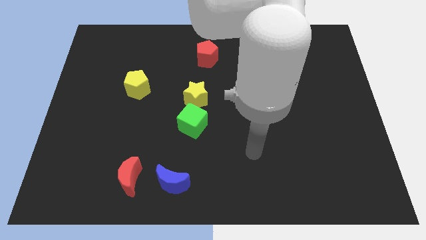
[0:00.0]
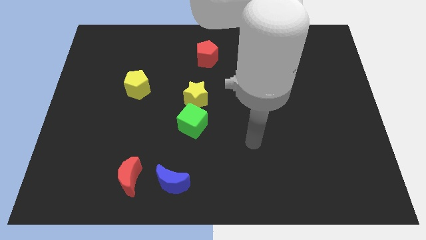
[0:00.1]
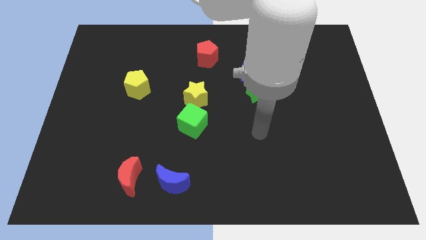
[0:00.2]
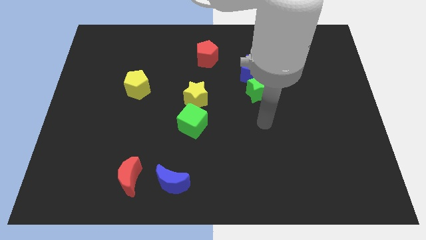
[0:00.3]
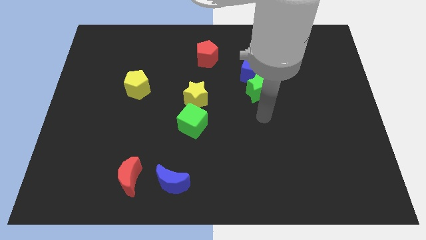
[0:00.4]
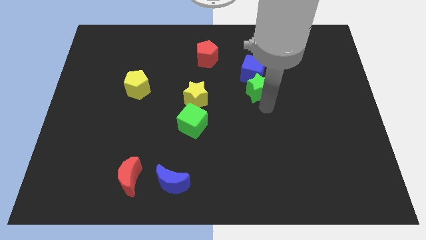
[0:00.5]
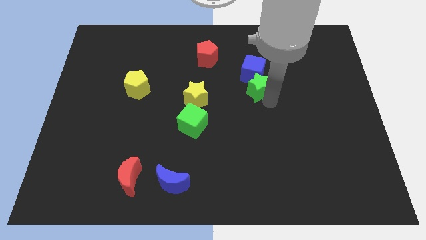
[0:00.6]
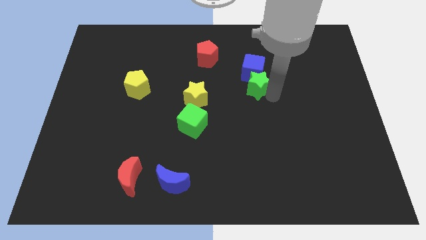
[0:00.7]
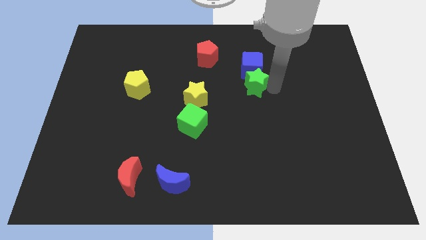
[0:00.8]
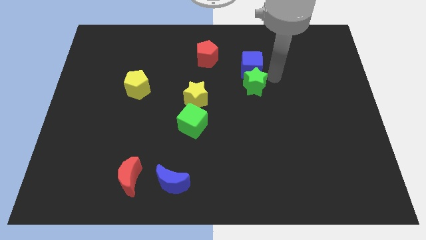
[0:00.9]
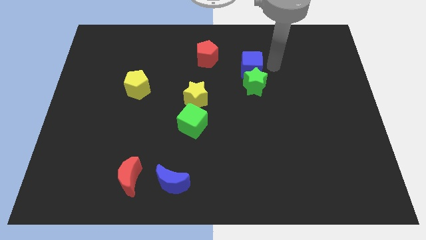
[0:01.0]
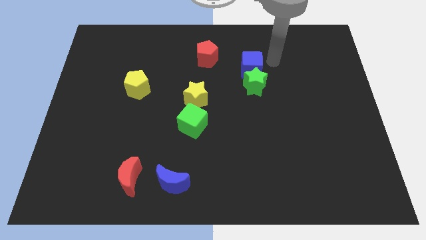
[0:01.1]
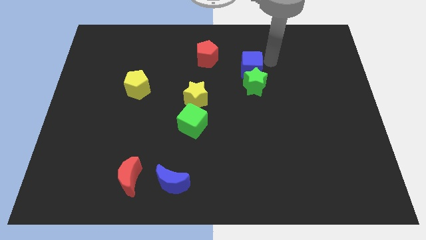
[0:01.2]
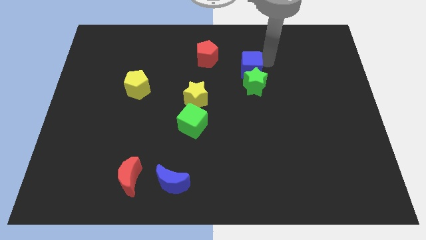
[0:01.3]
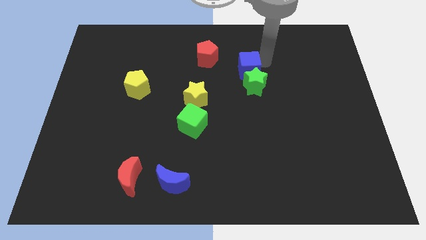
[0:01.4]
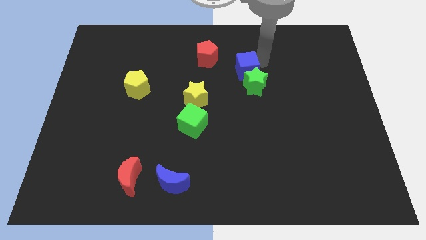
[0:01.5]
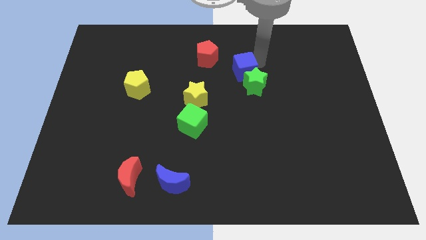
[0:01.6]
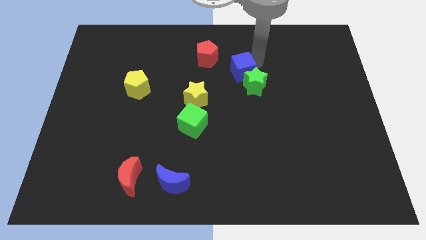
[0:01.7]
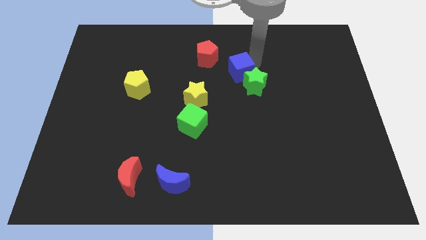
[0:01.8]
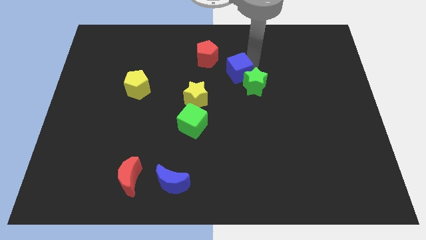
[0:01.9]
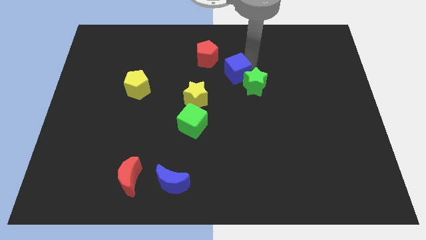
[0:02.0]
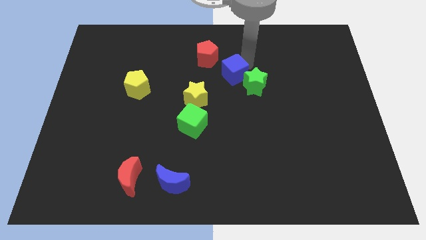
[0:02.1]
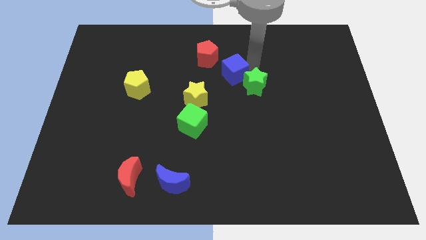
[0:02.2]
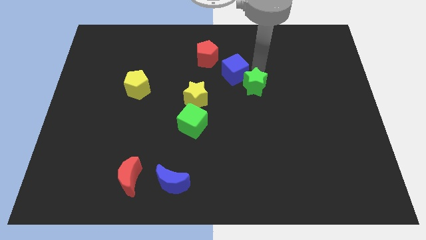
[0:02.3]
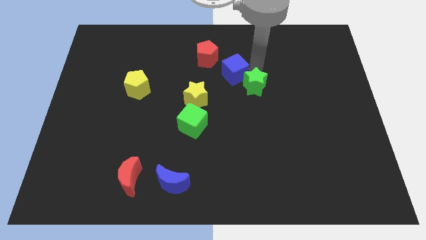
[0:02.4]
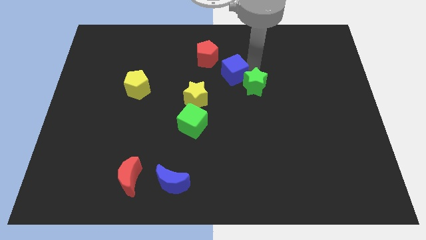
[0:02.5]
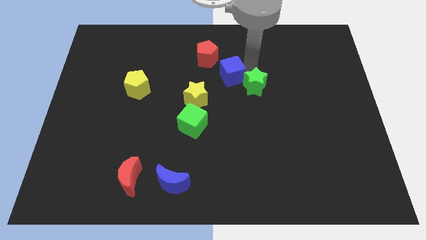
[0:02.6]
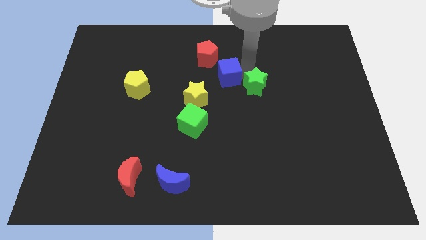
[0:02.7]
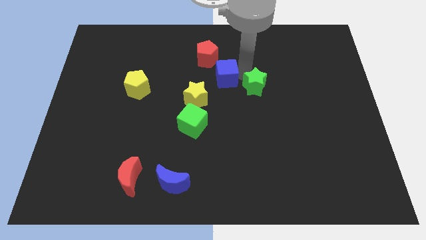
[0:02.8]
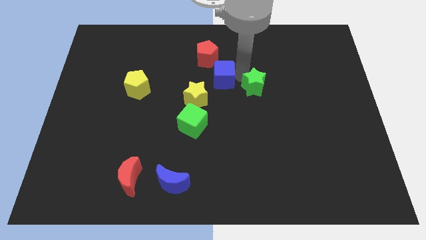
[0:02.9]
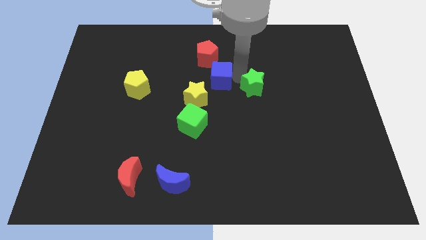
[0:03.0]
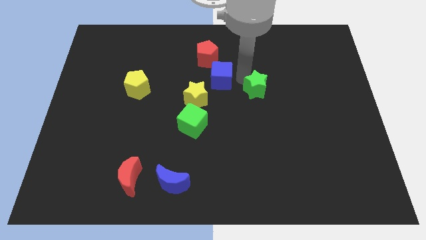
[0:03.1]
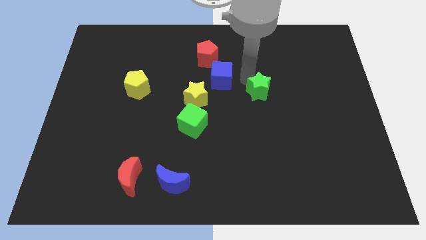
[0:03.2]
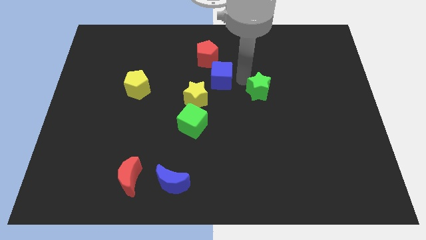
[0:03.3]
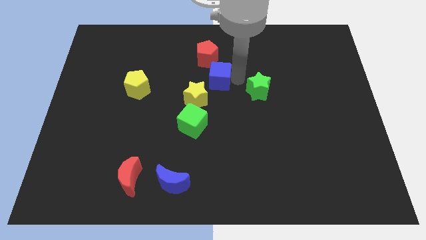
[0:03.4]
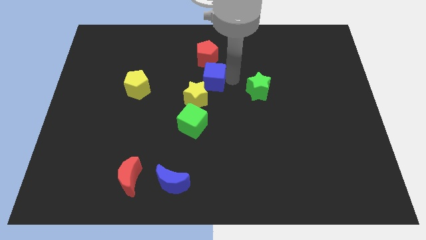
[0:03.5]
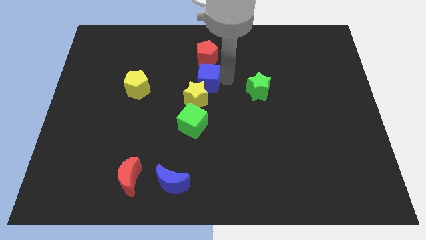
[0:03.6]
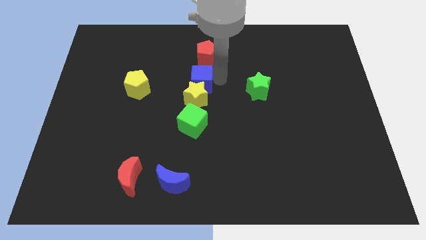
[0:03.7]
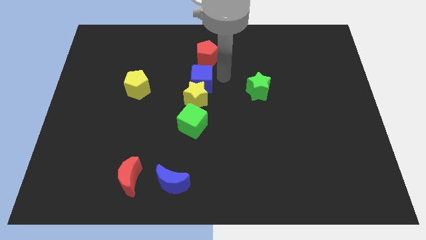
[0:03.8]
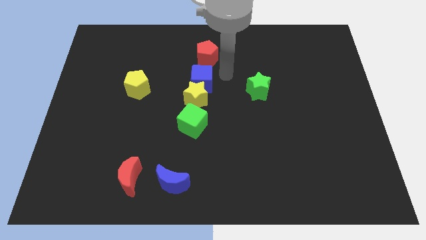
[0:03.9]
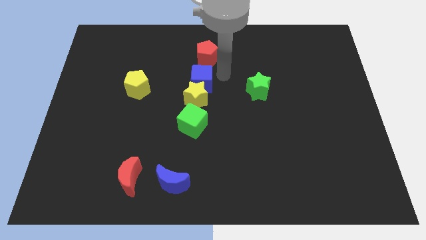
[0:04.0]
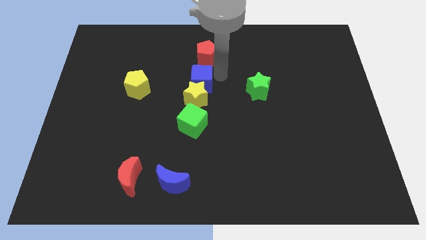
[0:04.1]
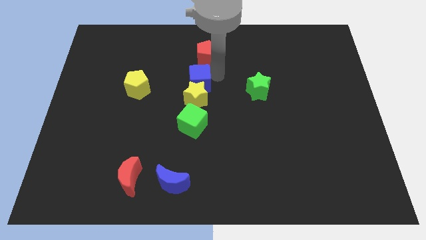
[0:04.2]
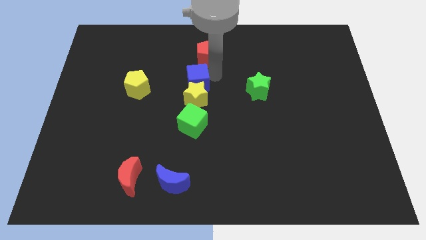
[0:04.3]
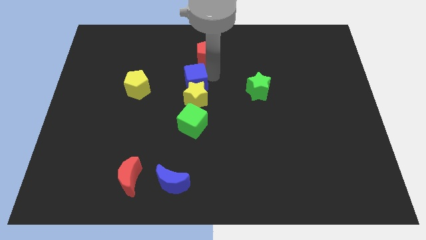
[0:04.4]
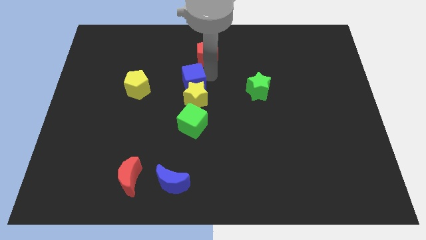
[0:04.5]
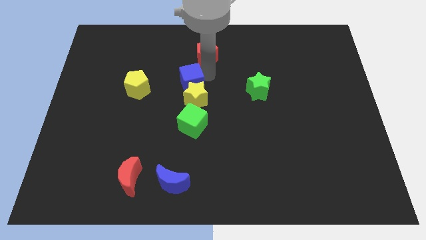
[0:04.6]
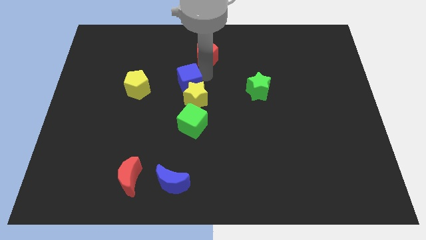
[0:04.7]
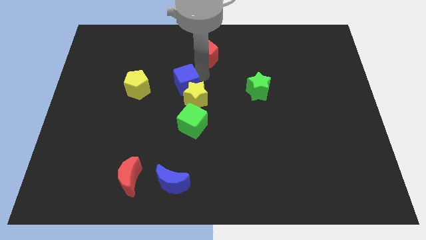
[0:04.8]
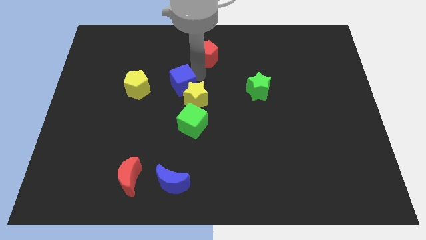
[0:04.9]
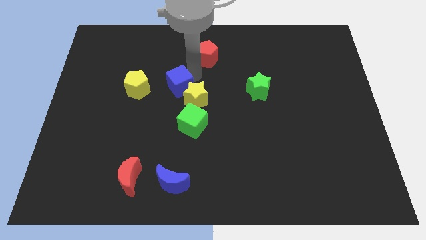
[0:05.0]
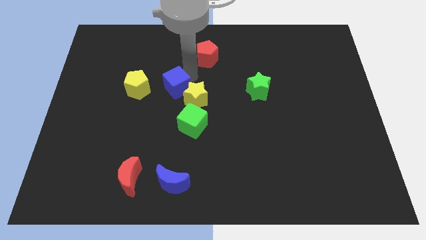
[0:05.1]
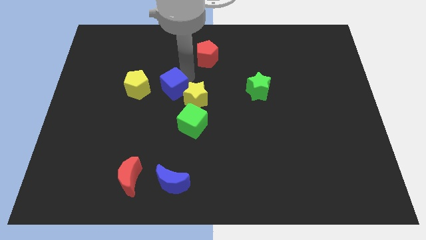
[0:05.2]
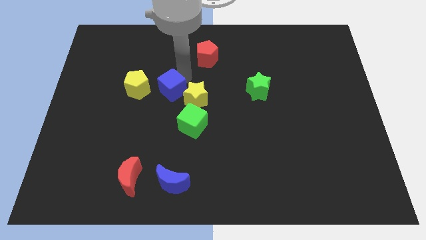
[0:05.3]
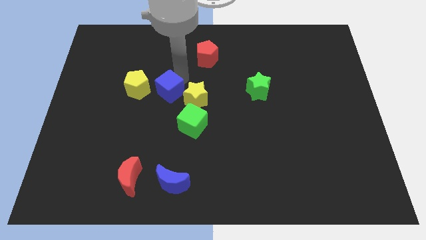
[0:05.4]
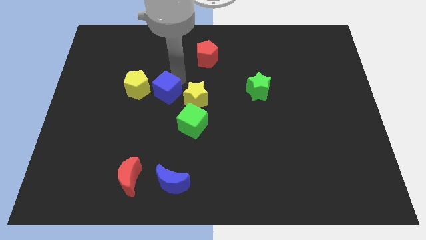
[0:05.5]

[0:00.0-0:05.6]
push the blue cube diagonally down and to the right of the yellow pentagon

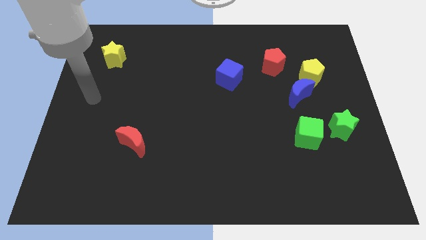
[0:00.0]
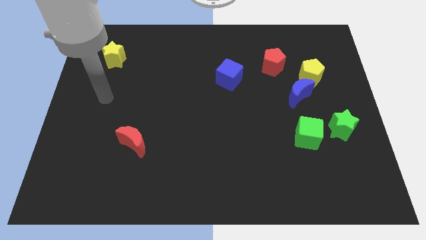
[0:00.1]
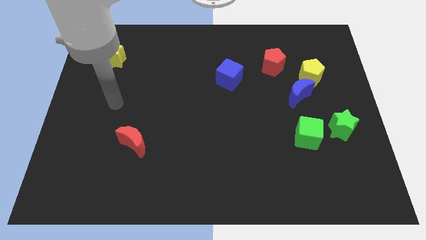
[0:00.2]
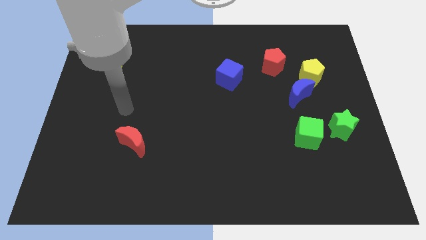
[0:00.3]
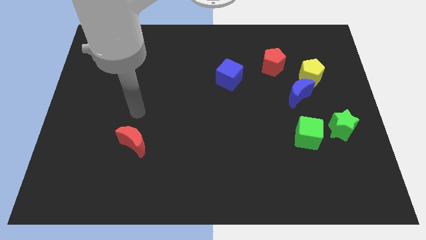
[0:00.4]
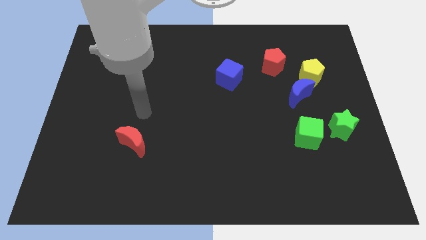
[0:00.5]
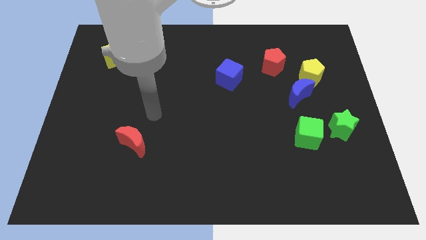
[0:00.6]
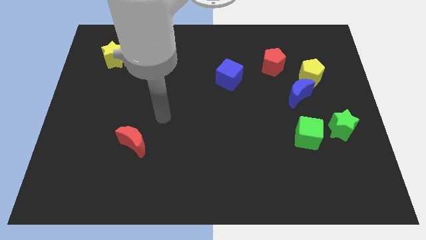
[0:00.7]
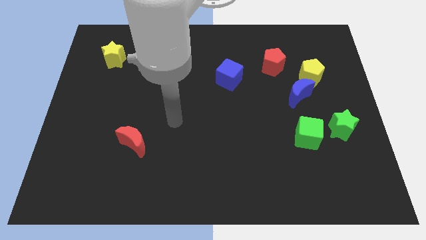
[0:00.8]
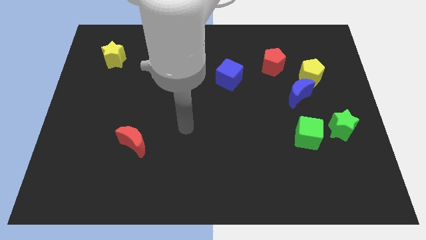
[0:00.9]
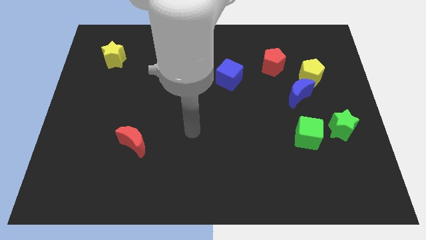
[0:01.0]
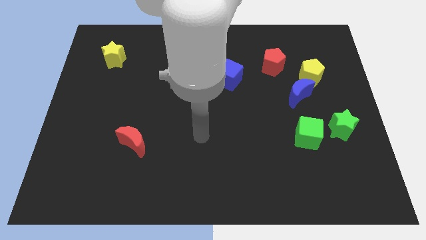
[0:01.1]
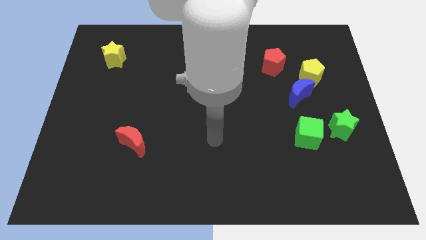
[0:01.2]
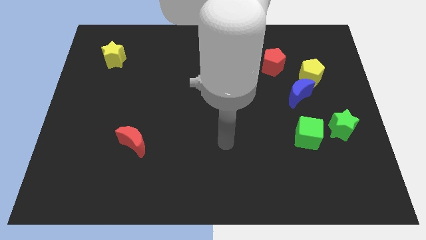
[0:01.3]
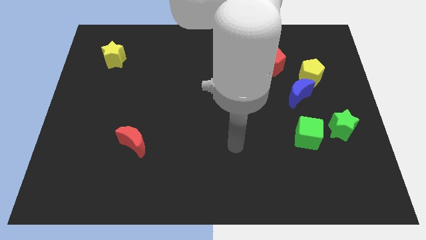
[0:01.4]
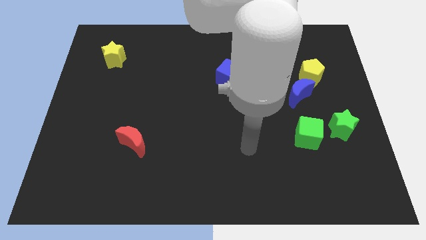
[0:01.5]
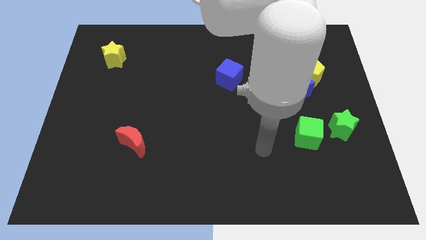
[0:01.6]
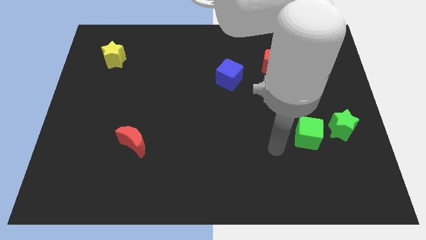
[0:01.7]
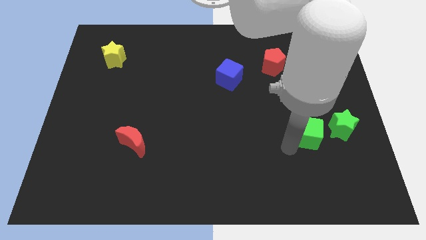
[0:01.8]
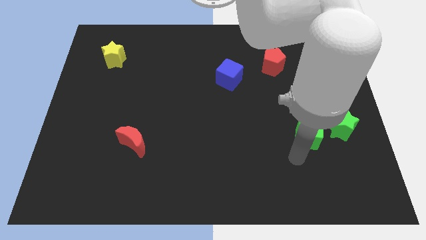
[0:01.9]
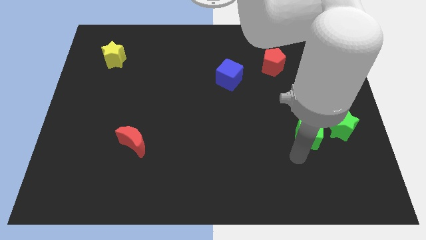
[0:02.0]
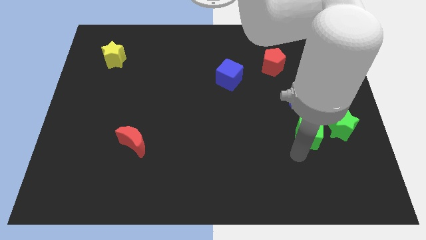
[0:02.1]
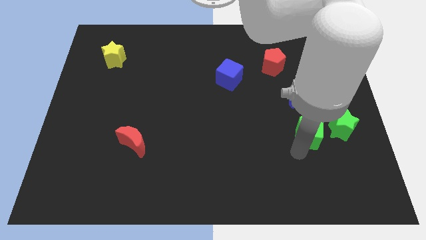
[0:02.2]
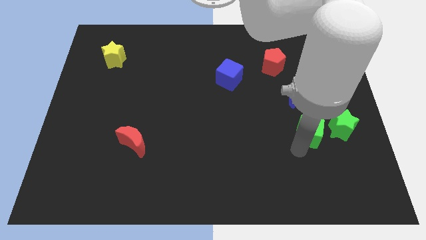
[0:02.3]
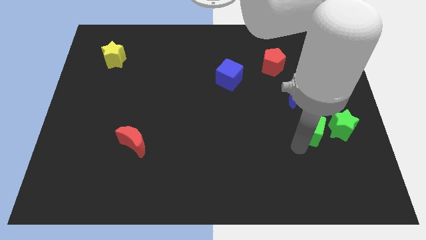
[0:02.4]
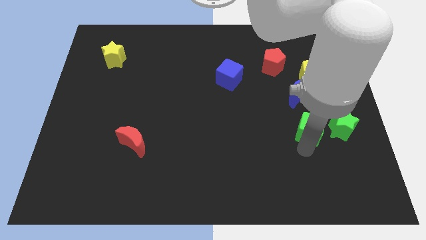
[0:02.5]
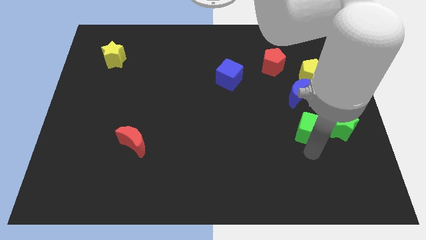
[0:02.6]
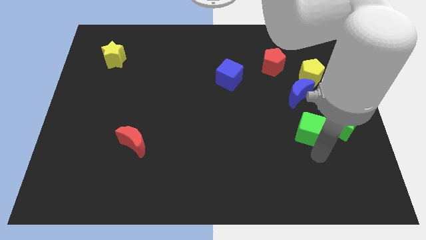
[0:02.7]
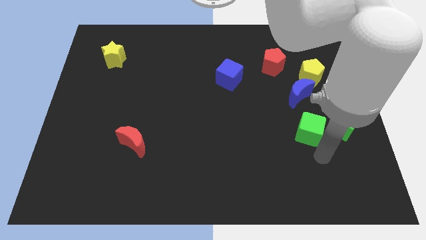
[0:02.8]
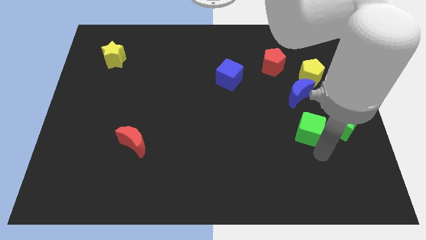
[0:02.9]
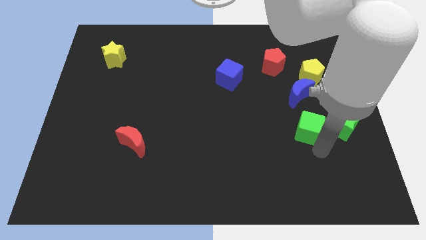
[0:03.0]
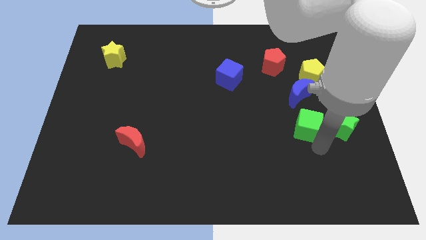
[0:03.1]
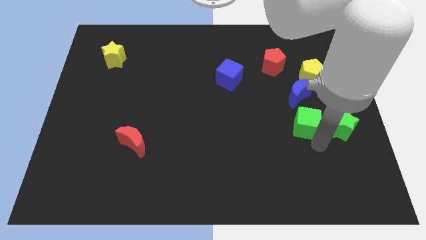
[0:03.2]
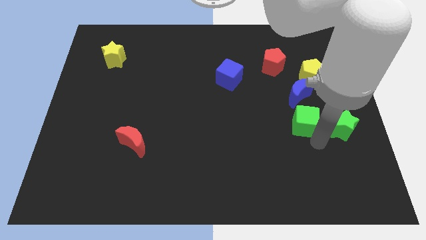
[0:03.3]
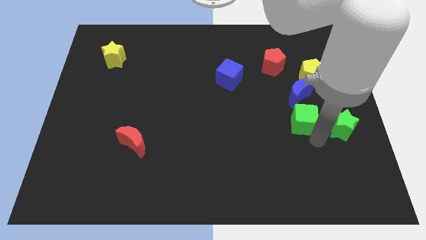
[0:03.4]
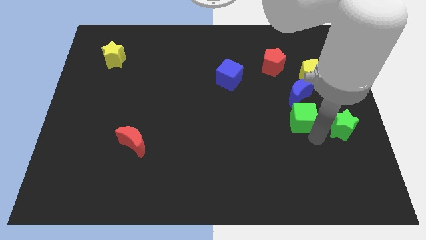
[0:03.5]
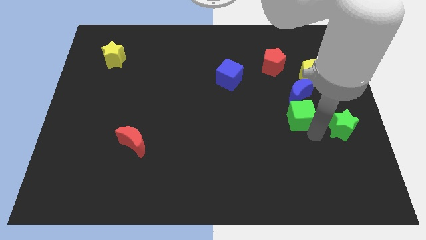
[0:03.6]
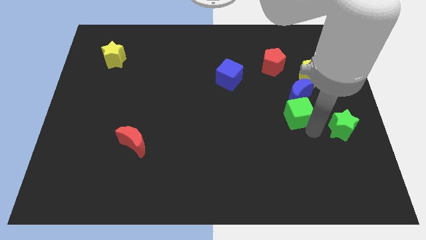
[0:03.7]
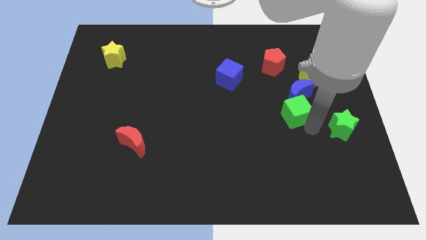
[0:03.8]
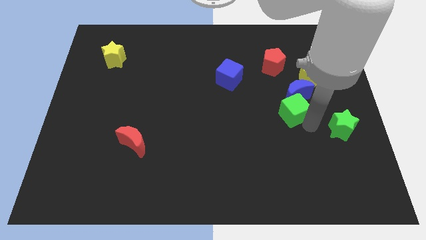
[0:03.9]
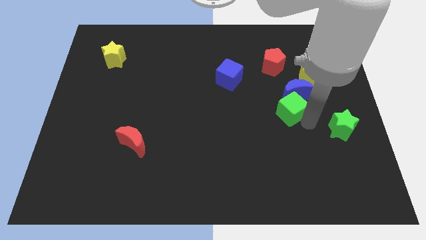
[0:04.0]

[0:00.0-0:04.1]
put the green cube below the red pentagon
